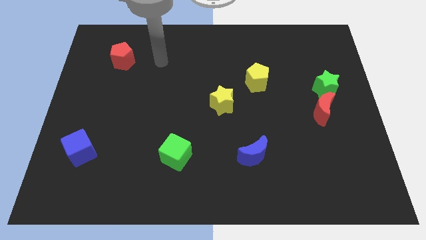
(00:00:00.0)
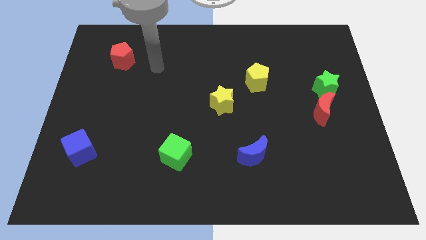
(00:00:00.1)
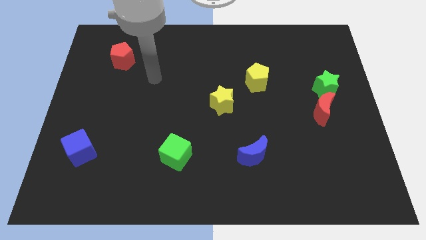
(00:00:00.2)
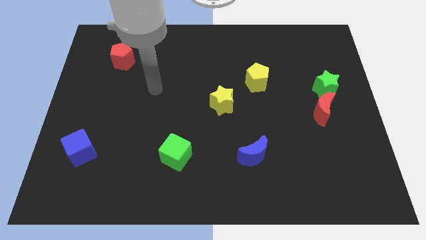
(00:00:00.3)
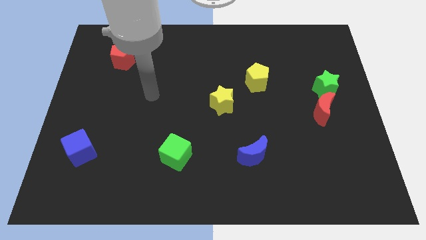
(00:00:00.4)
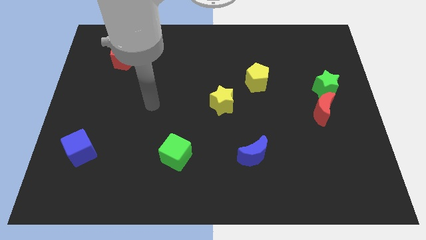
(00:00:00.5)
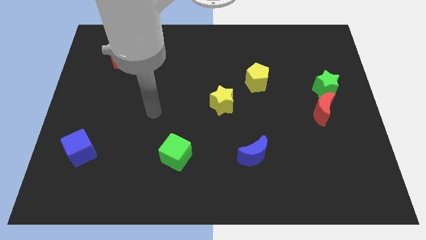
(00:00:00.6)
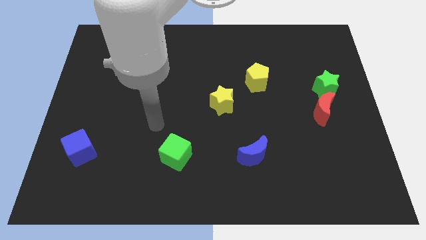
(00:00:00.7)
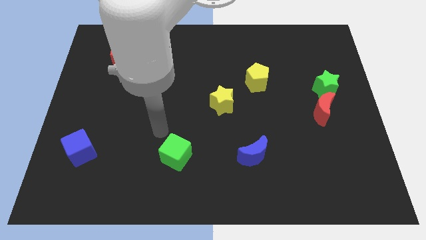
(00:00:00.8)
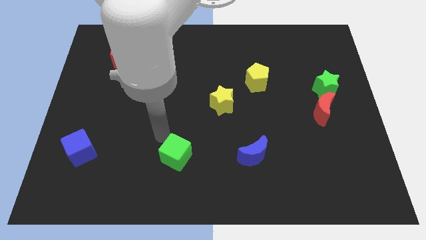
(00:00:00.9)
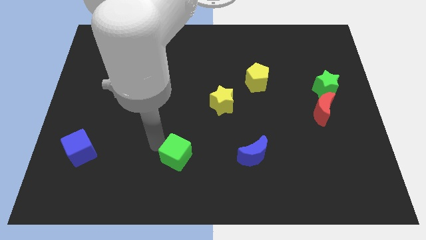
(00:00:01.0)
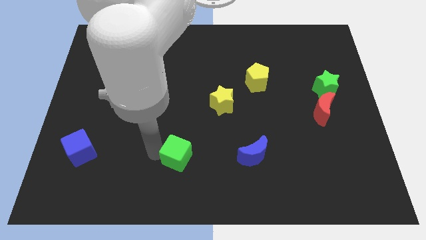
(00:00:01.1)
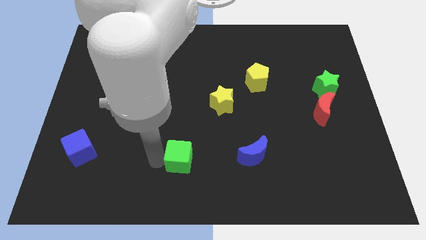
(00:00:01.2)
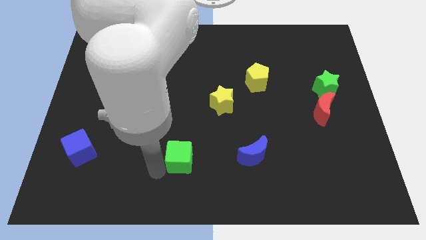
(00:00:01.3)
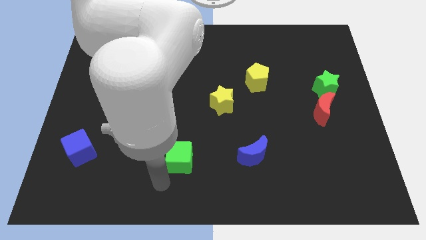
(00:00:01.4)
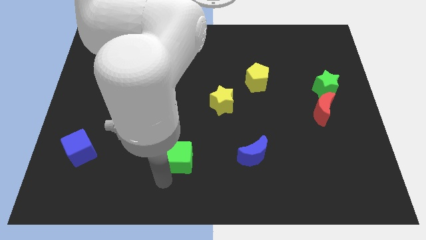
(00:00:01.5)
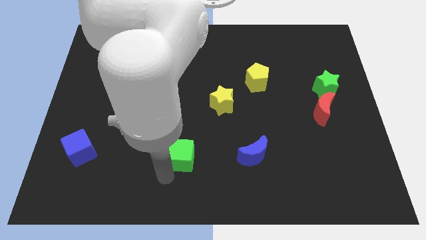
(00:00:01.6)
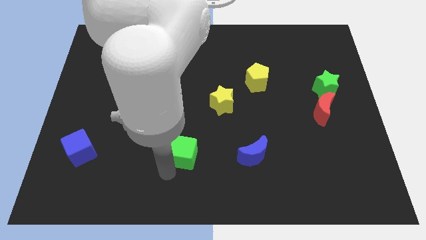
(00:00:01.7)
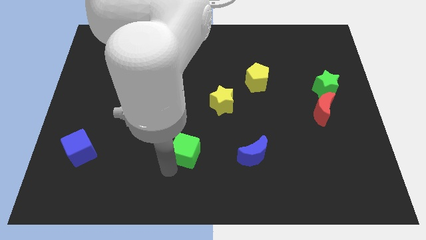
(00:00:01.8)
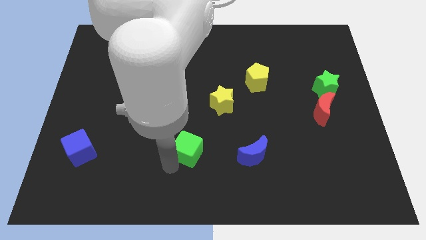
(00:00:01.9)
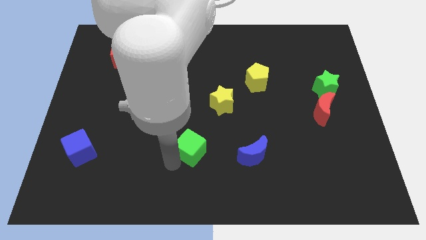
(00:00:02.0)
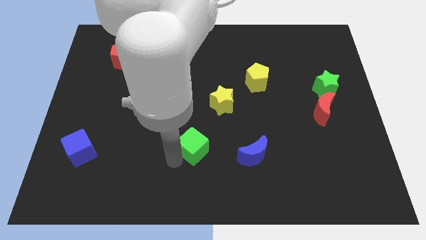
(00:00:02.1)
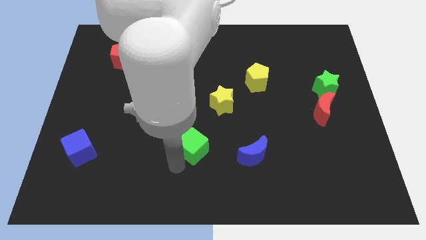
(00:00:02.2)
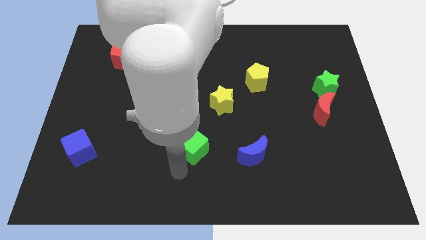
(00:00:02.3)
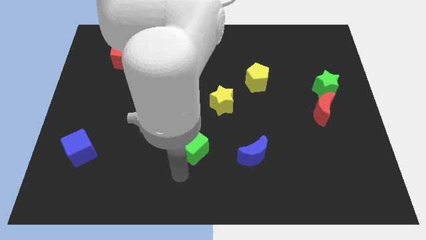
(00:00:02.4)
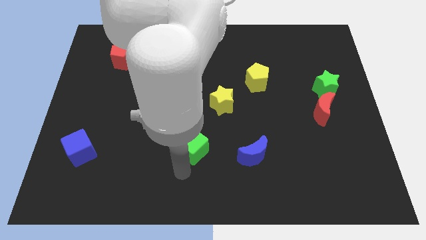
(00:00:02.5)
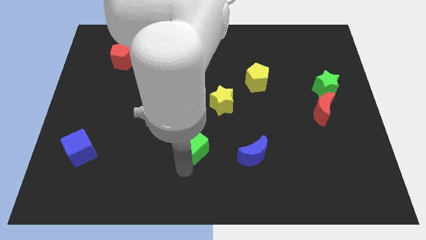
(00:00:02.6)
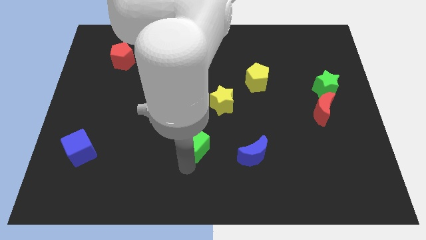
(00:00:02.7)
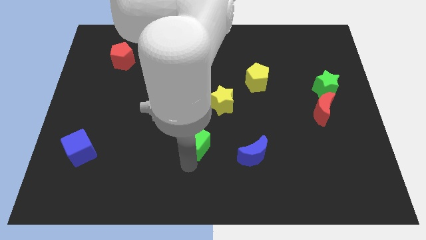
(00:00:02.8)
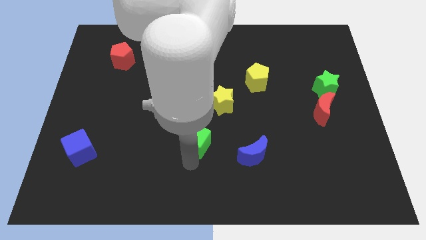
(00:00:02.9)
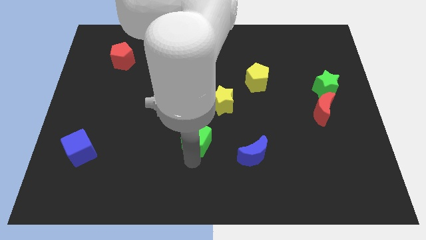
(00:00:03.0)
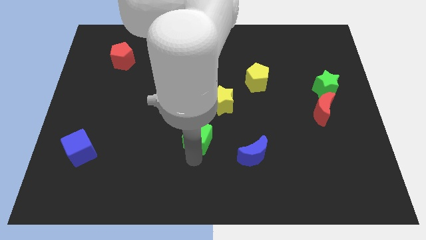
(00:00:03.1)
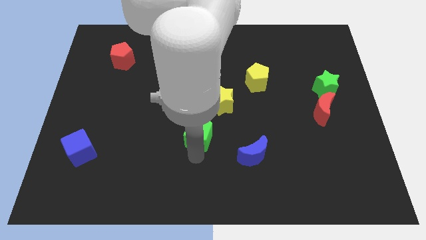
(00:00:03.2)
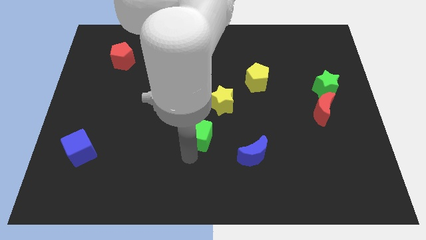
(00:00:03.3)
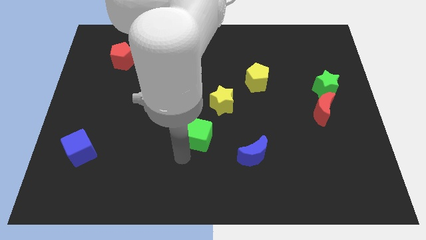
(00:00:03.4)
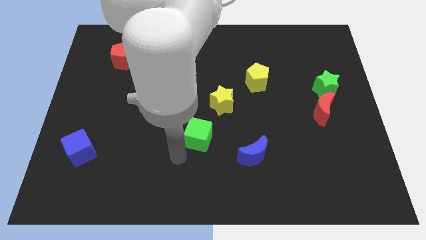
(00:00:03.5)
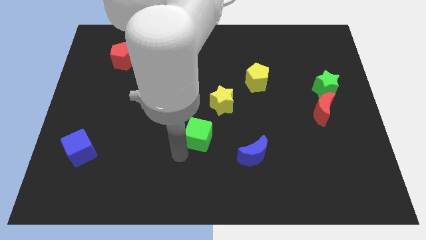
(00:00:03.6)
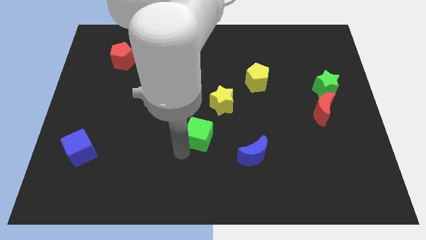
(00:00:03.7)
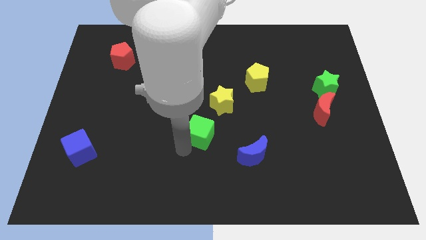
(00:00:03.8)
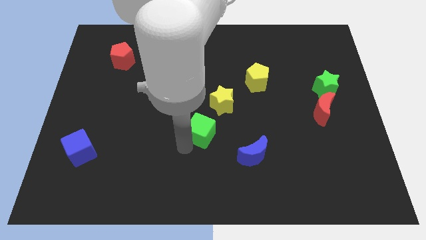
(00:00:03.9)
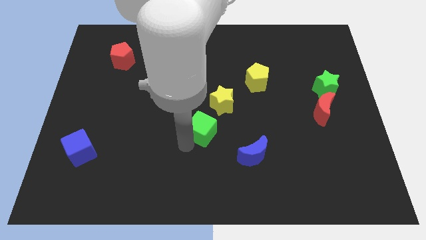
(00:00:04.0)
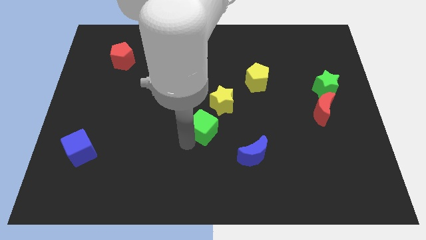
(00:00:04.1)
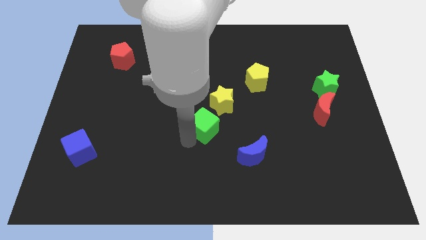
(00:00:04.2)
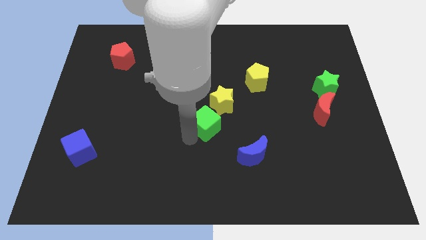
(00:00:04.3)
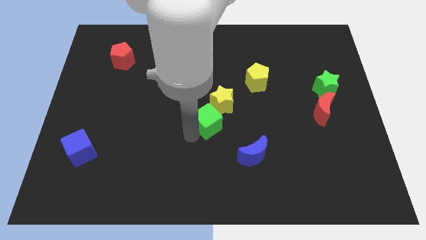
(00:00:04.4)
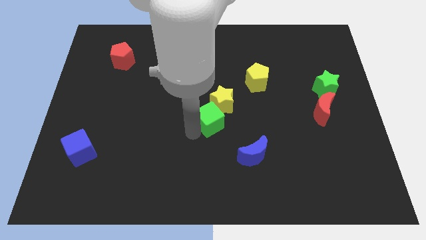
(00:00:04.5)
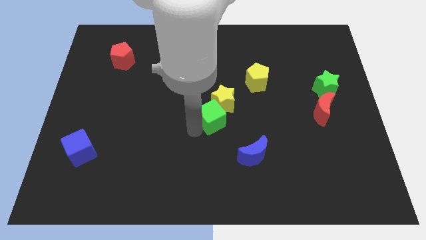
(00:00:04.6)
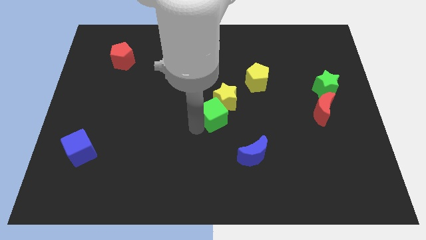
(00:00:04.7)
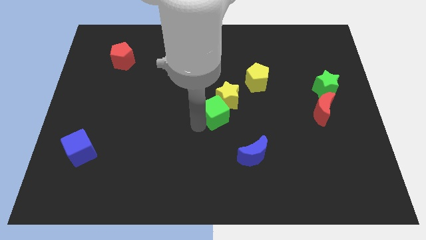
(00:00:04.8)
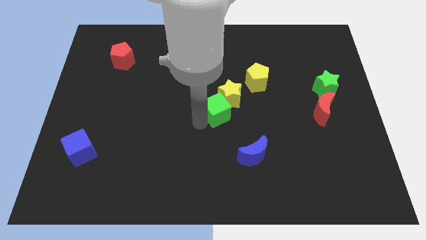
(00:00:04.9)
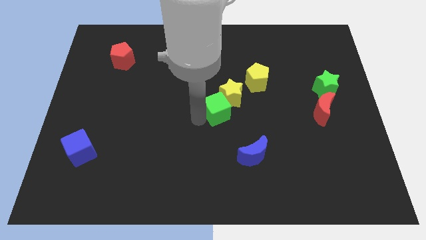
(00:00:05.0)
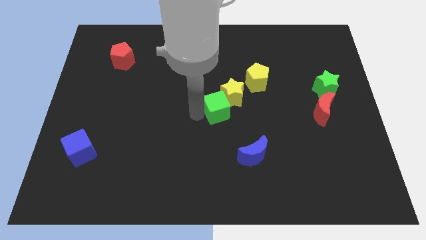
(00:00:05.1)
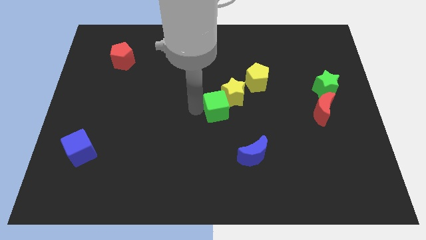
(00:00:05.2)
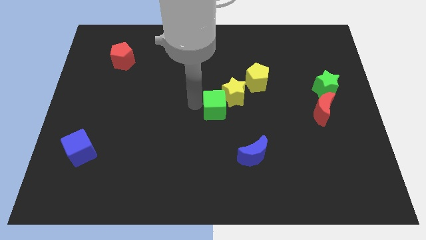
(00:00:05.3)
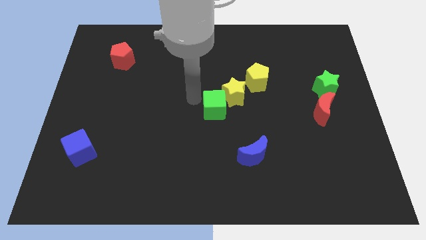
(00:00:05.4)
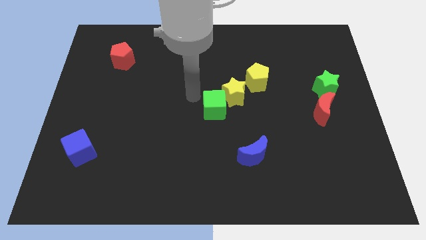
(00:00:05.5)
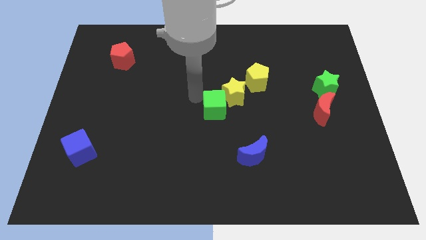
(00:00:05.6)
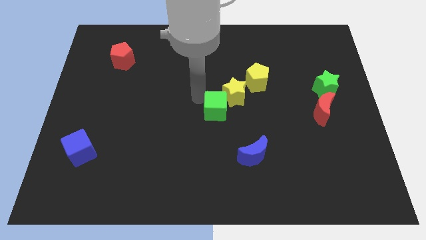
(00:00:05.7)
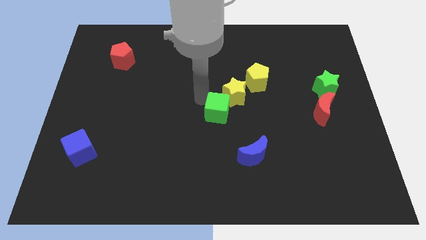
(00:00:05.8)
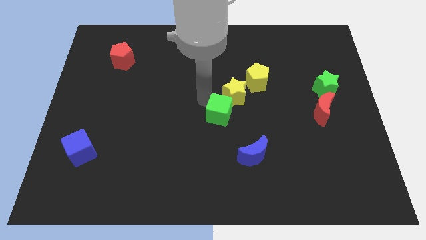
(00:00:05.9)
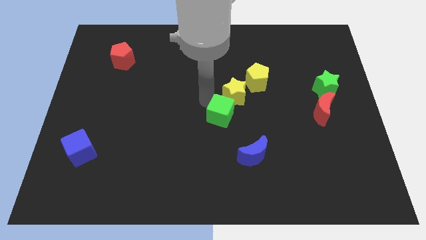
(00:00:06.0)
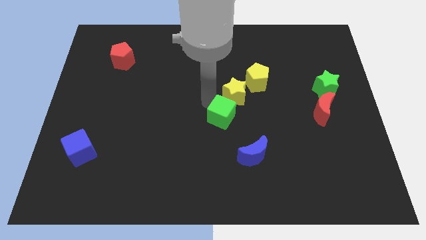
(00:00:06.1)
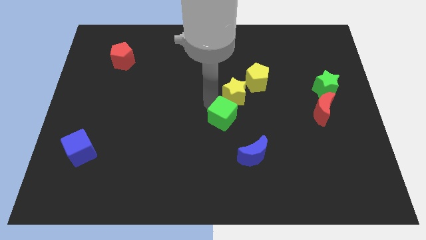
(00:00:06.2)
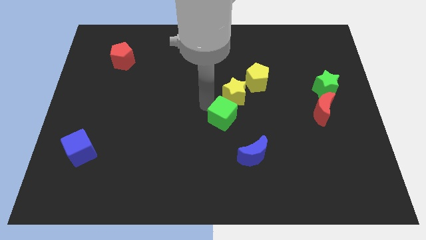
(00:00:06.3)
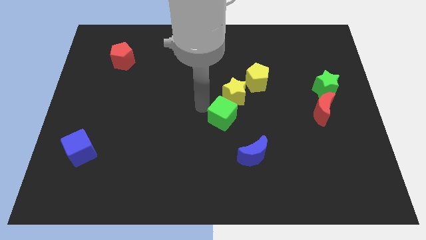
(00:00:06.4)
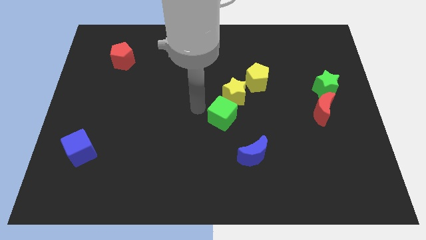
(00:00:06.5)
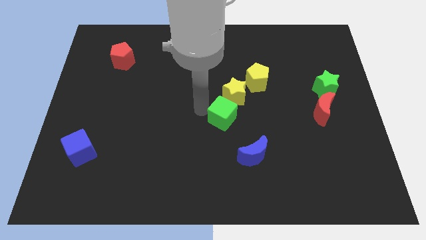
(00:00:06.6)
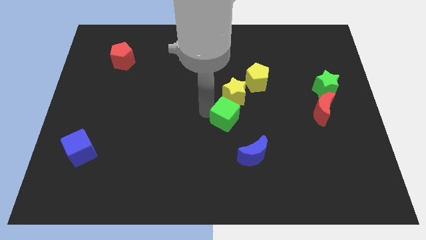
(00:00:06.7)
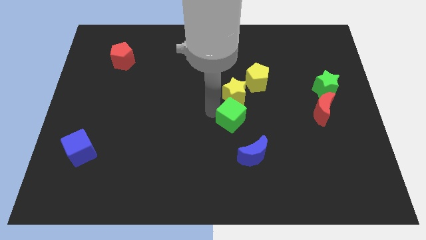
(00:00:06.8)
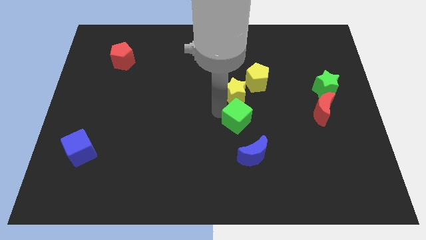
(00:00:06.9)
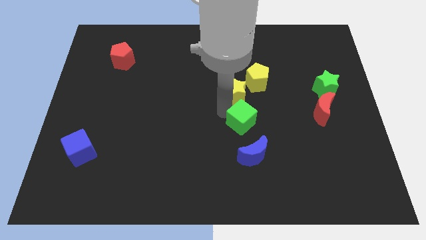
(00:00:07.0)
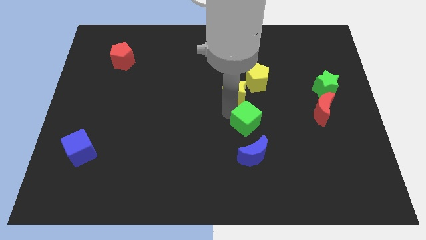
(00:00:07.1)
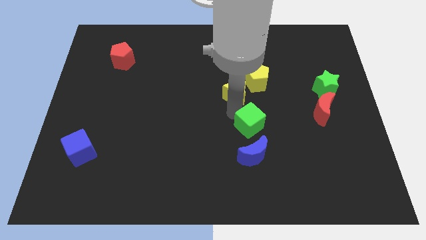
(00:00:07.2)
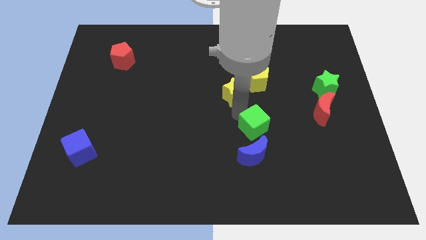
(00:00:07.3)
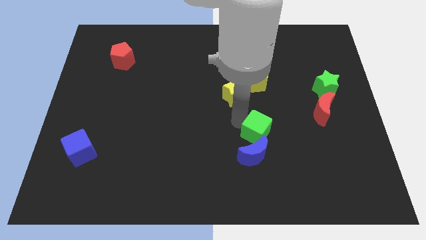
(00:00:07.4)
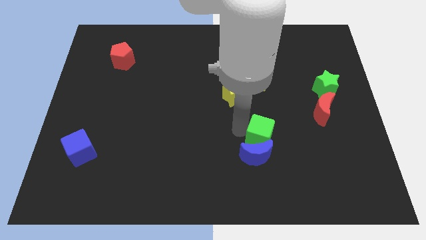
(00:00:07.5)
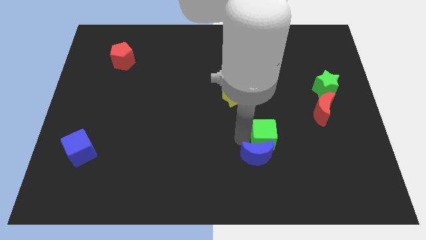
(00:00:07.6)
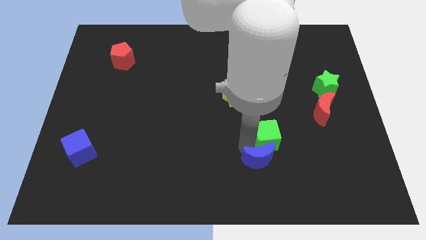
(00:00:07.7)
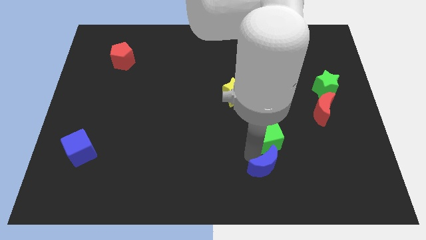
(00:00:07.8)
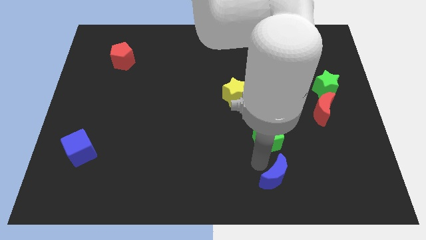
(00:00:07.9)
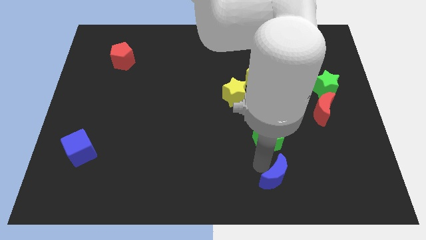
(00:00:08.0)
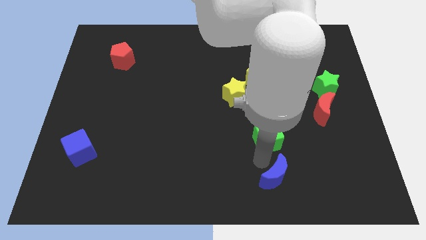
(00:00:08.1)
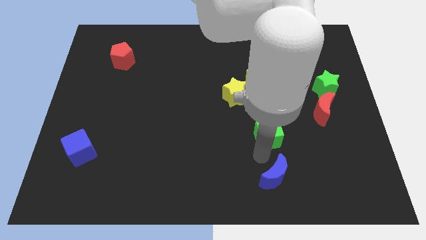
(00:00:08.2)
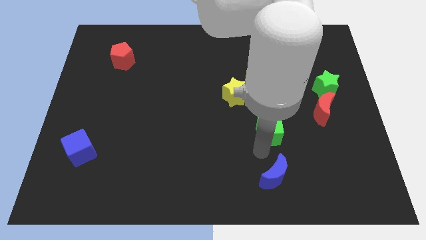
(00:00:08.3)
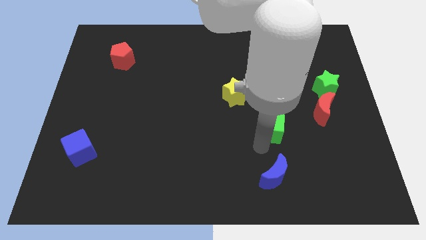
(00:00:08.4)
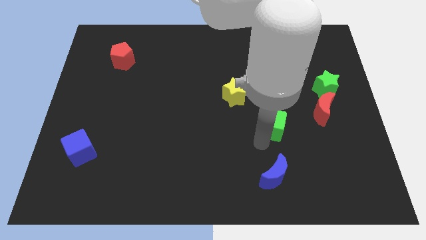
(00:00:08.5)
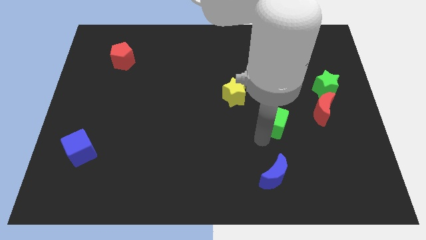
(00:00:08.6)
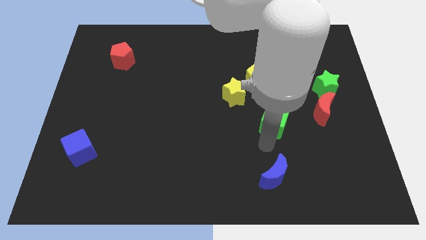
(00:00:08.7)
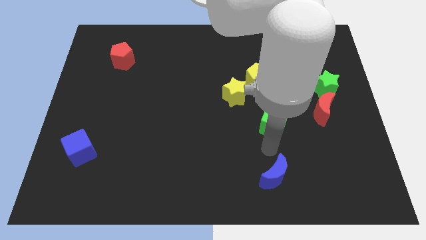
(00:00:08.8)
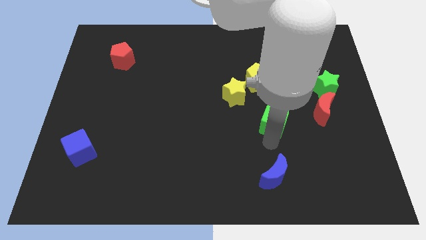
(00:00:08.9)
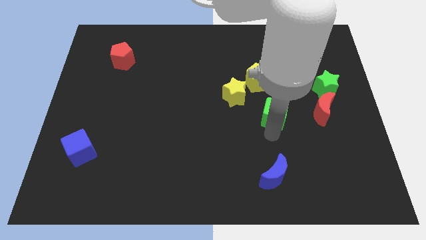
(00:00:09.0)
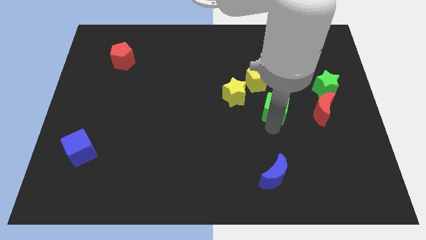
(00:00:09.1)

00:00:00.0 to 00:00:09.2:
move the green cube just right of the yellow star
